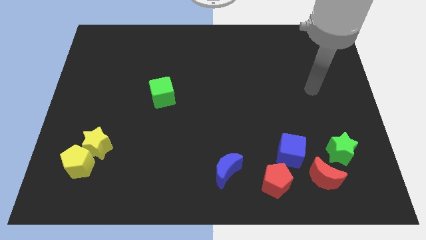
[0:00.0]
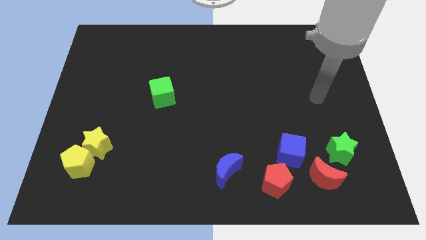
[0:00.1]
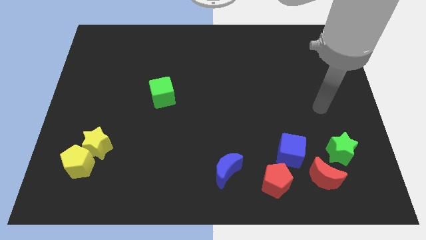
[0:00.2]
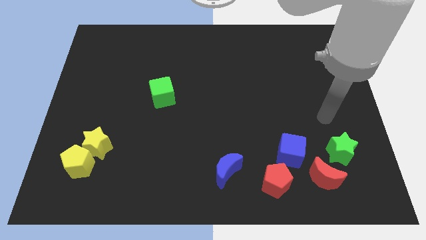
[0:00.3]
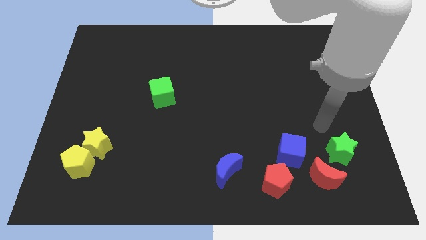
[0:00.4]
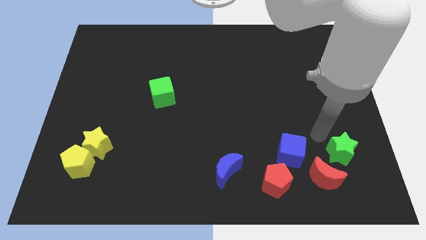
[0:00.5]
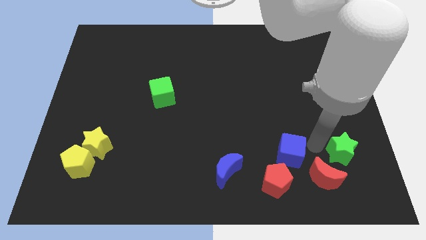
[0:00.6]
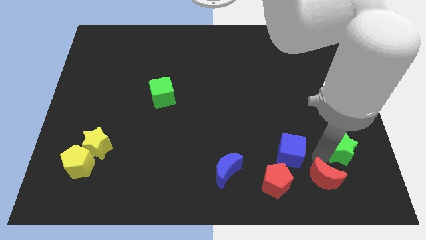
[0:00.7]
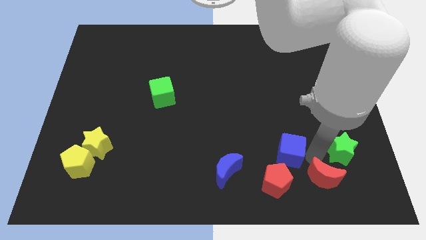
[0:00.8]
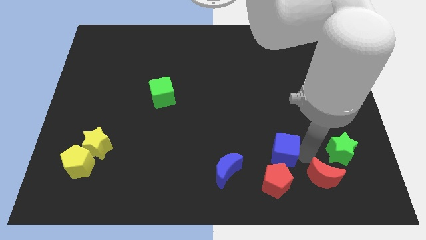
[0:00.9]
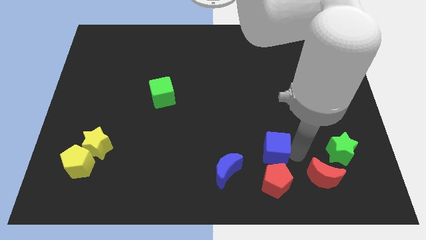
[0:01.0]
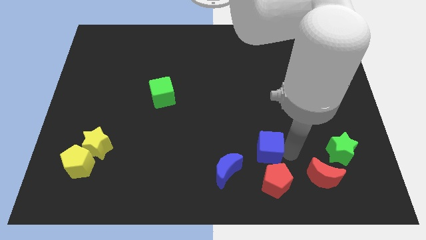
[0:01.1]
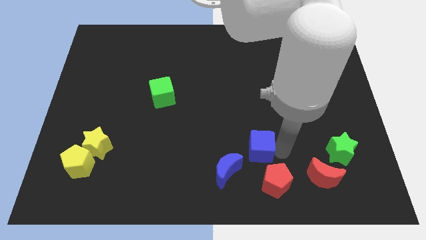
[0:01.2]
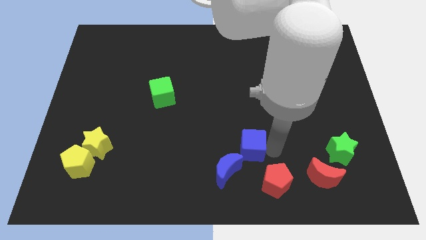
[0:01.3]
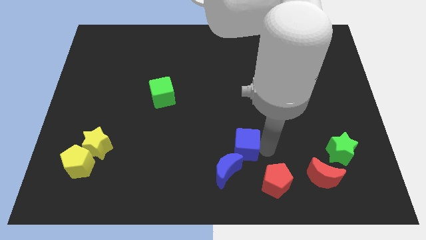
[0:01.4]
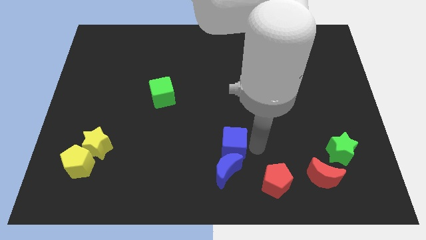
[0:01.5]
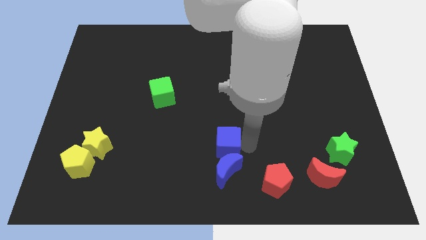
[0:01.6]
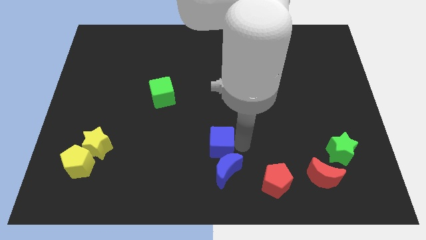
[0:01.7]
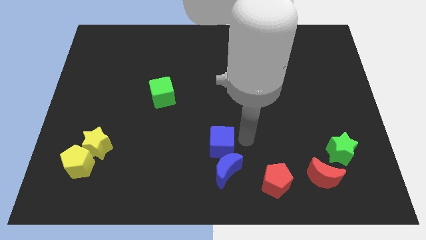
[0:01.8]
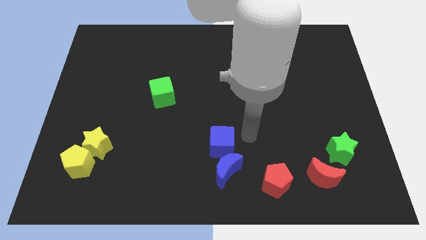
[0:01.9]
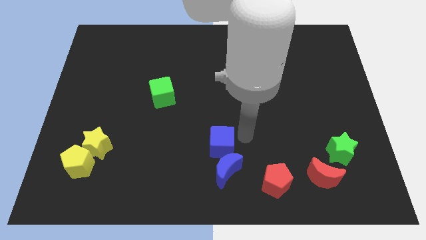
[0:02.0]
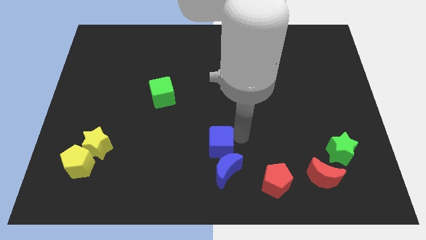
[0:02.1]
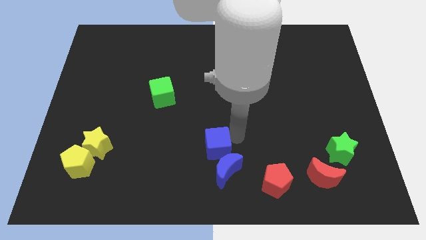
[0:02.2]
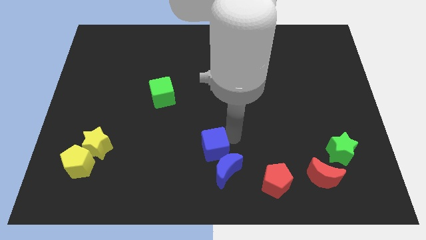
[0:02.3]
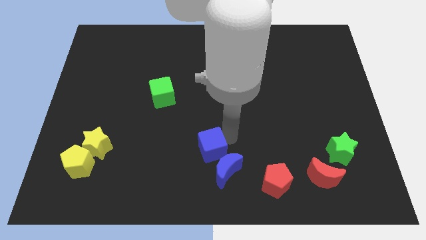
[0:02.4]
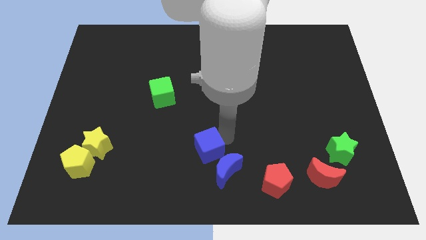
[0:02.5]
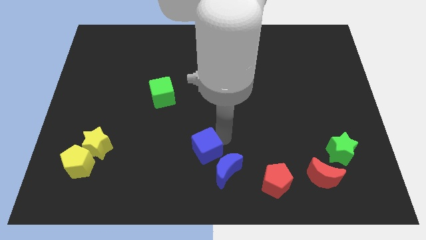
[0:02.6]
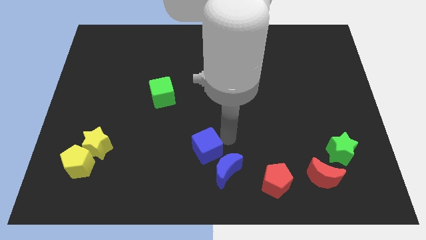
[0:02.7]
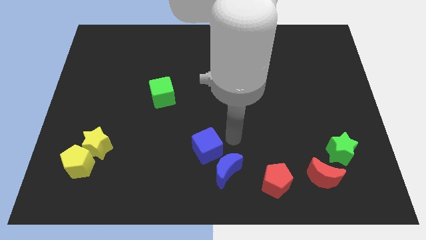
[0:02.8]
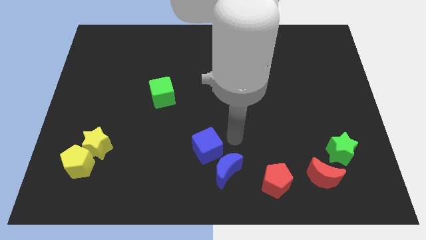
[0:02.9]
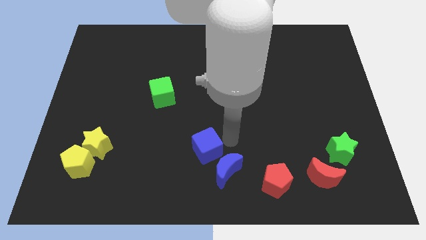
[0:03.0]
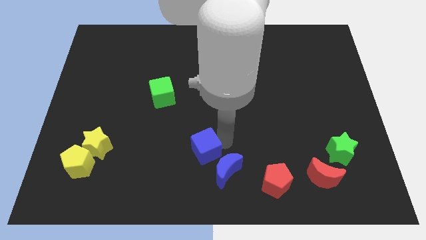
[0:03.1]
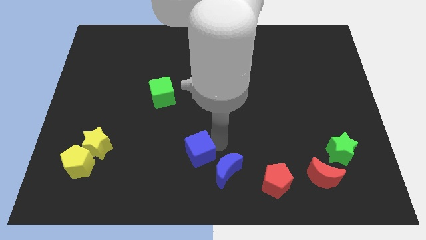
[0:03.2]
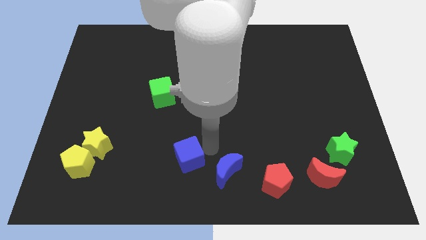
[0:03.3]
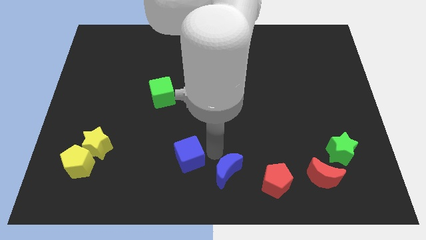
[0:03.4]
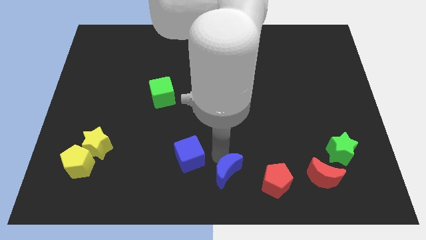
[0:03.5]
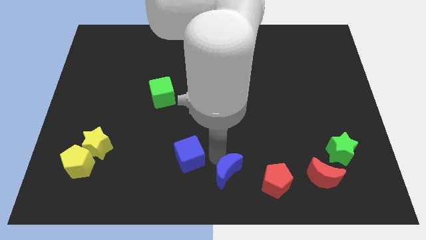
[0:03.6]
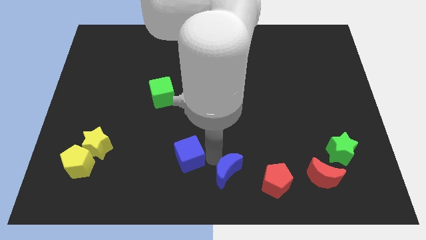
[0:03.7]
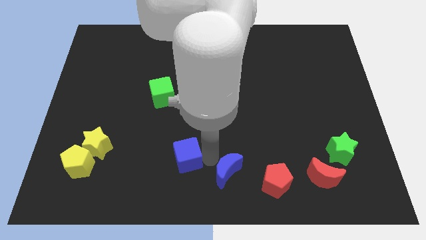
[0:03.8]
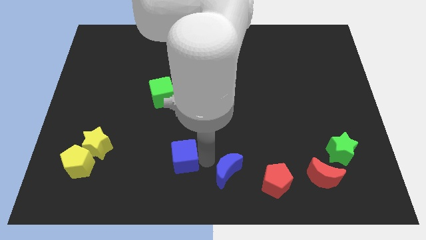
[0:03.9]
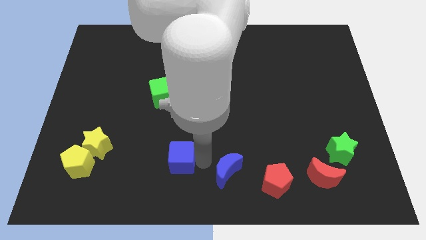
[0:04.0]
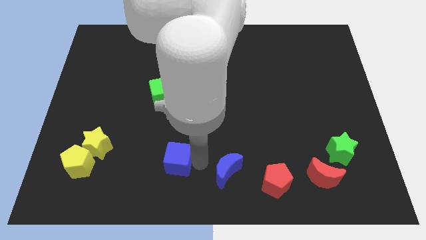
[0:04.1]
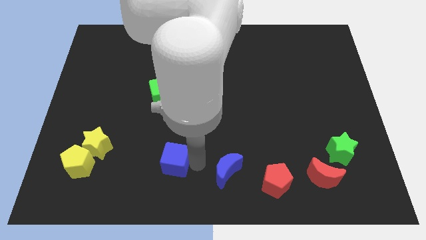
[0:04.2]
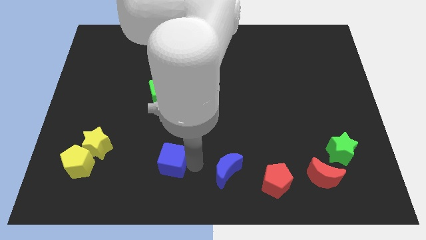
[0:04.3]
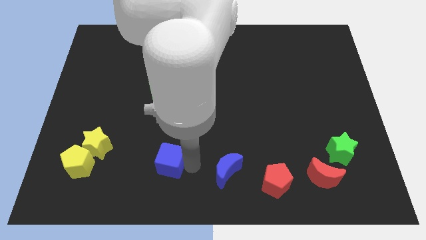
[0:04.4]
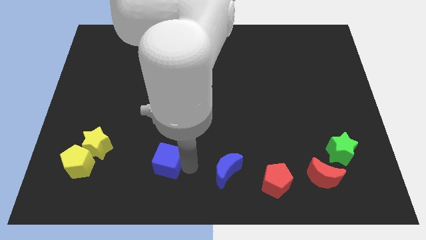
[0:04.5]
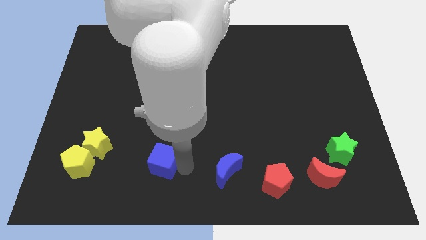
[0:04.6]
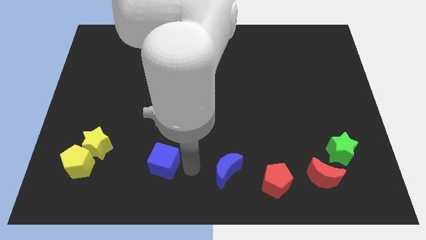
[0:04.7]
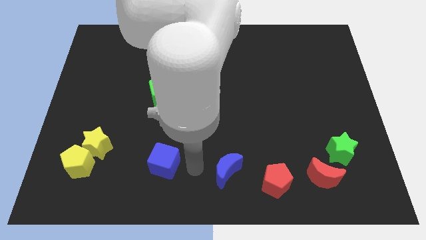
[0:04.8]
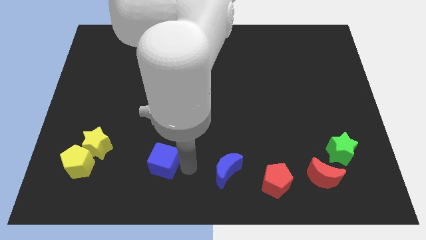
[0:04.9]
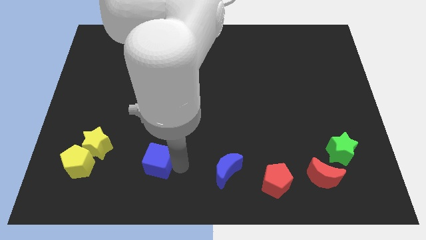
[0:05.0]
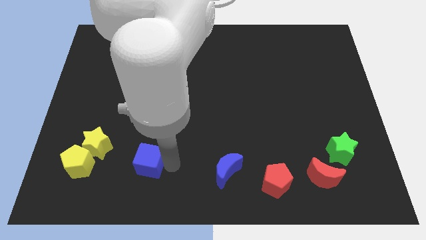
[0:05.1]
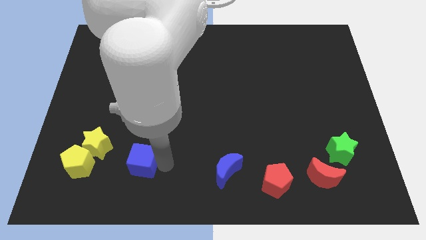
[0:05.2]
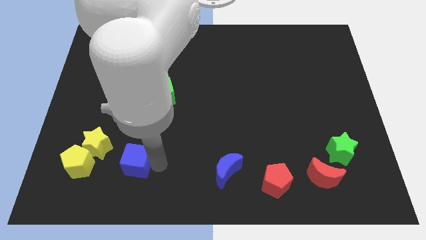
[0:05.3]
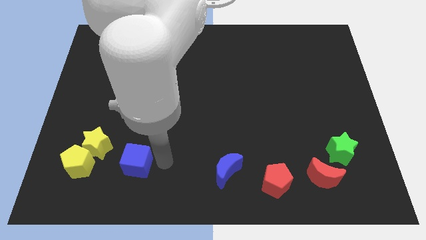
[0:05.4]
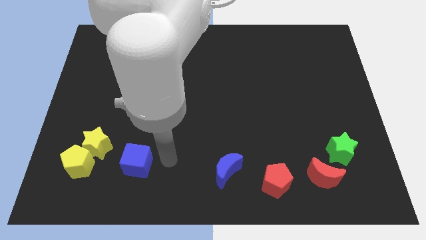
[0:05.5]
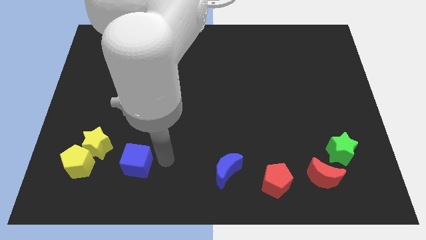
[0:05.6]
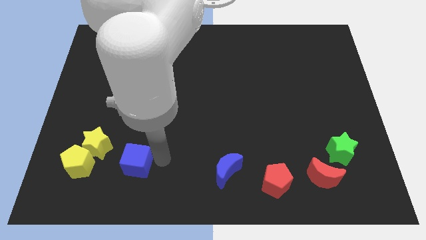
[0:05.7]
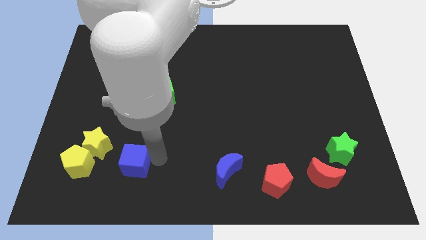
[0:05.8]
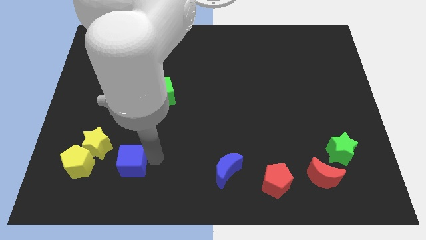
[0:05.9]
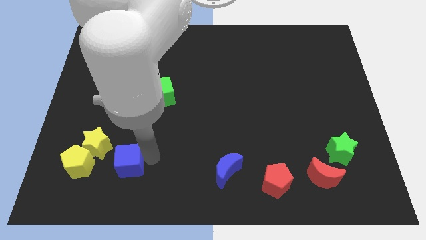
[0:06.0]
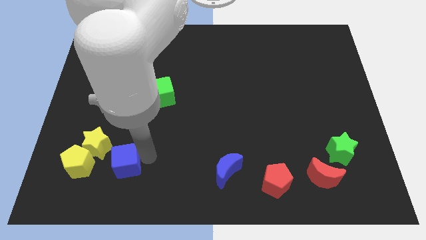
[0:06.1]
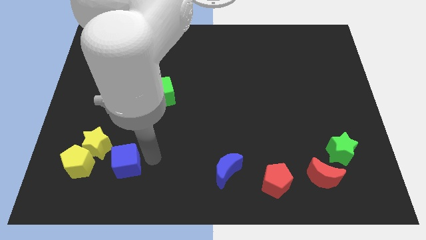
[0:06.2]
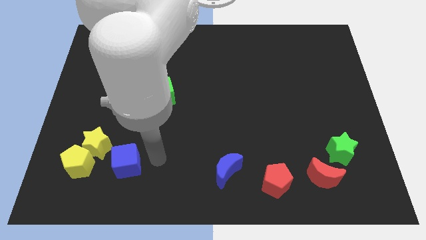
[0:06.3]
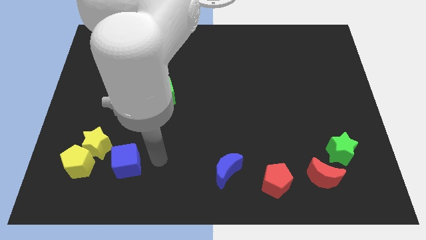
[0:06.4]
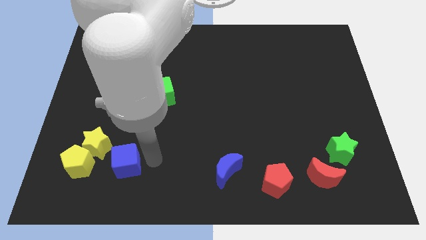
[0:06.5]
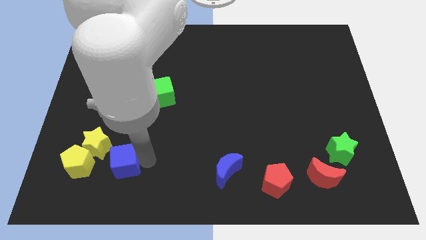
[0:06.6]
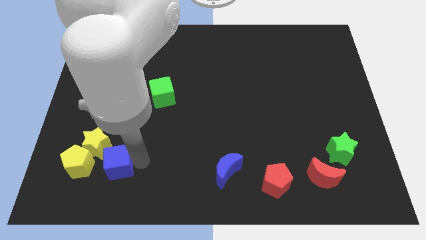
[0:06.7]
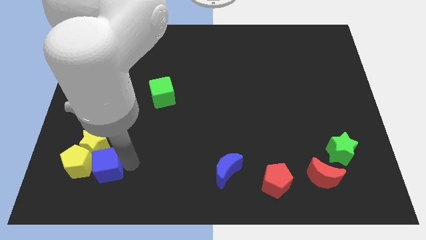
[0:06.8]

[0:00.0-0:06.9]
put the blue cube to the yellow pentagon
